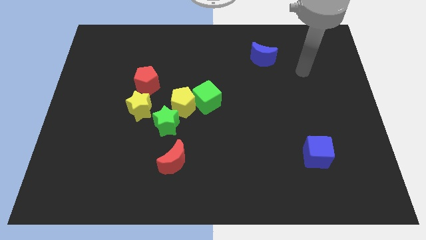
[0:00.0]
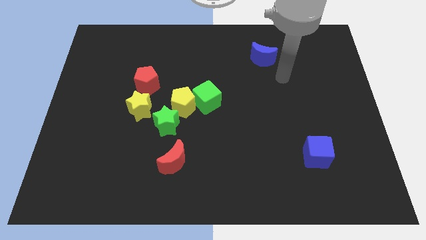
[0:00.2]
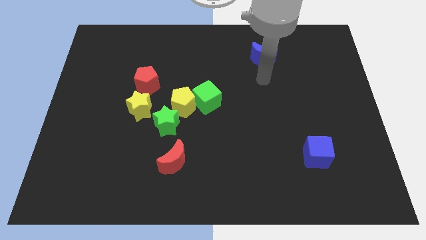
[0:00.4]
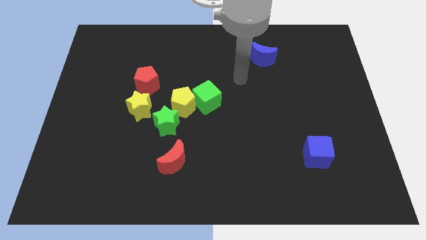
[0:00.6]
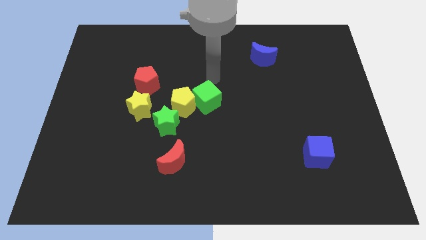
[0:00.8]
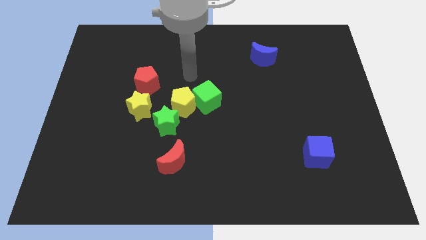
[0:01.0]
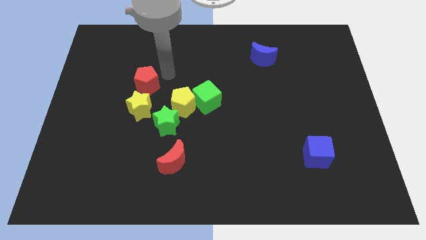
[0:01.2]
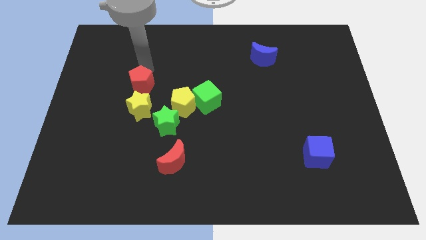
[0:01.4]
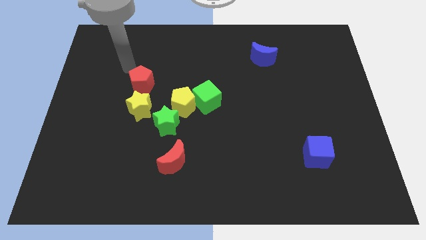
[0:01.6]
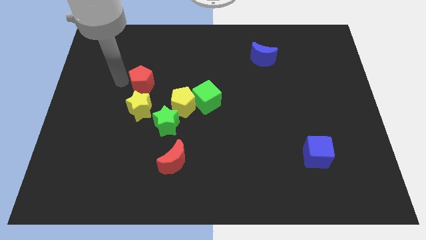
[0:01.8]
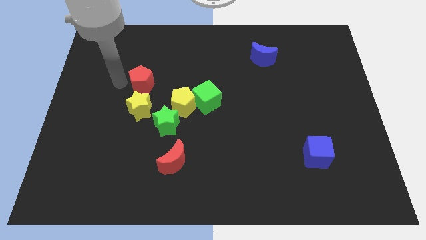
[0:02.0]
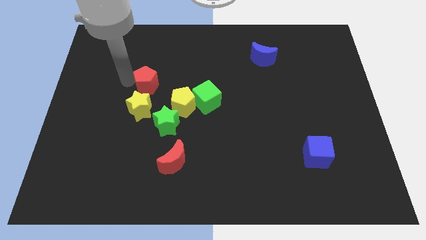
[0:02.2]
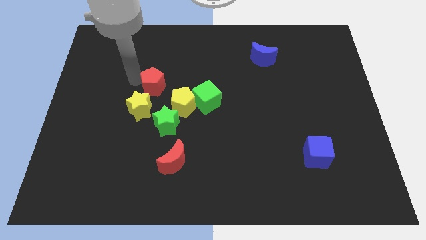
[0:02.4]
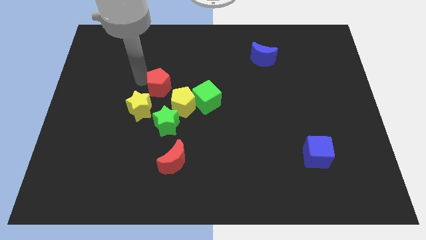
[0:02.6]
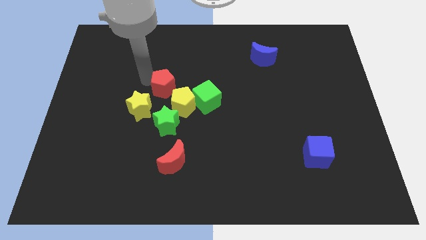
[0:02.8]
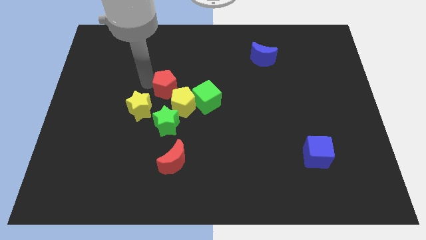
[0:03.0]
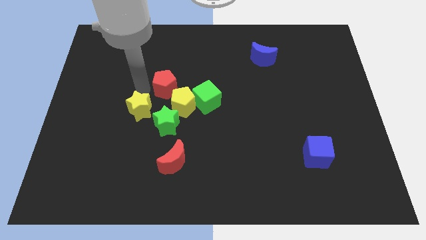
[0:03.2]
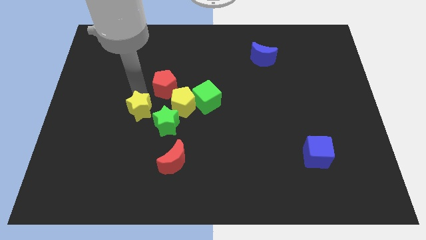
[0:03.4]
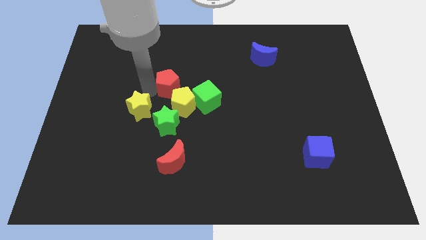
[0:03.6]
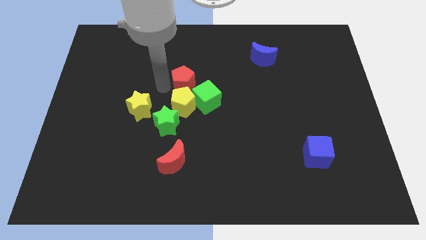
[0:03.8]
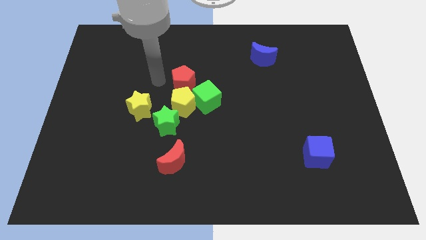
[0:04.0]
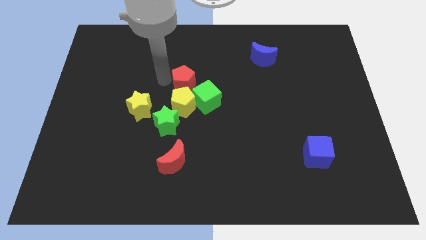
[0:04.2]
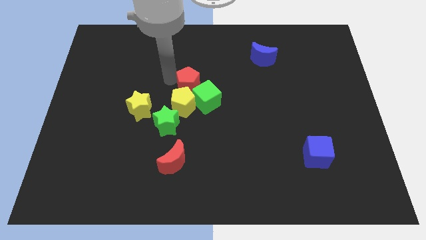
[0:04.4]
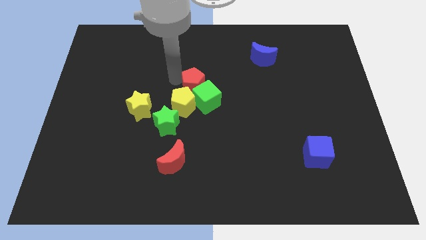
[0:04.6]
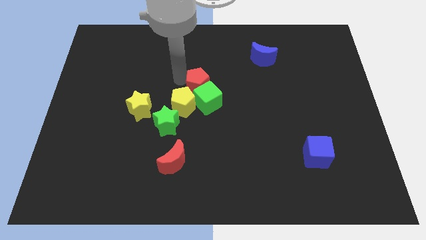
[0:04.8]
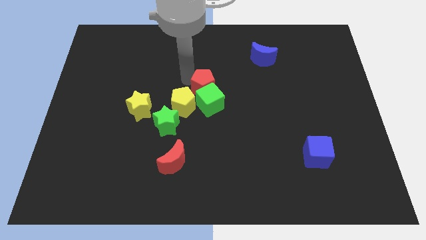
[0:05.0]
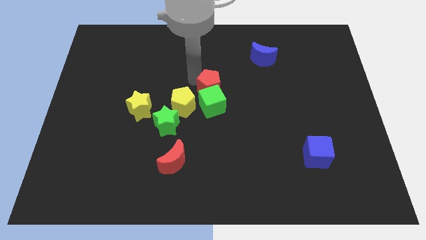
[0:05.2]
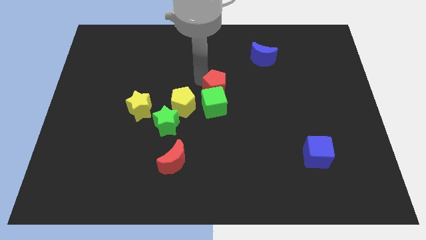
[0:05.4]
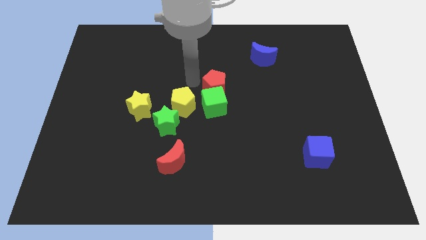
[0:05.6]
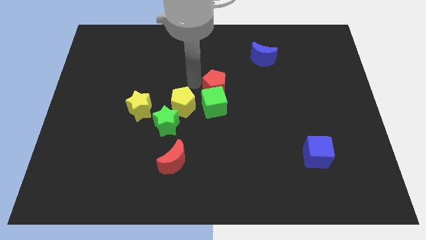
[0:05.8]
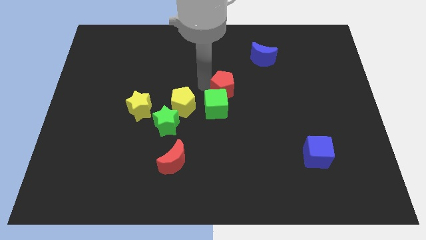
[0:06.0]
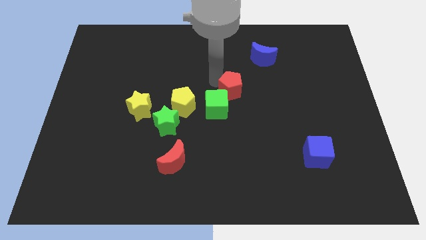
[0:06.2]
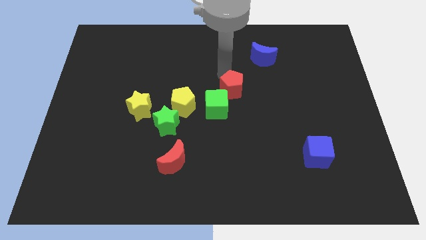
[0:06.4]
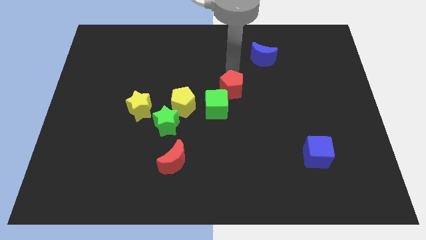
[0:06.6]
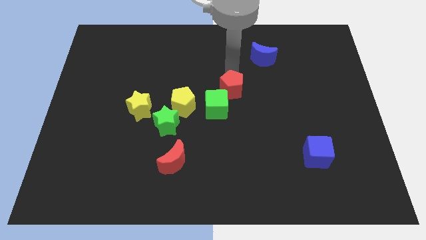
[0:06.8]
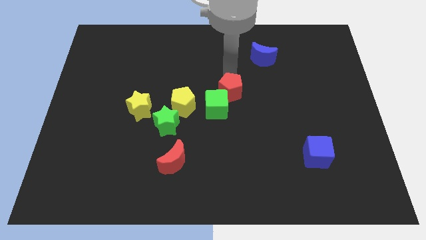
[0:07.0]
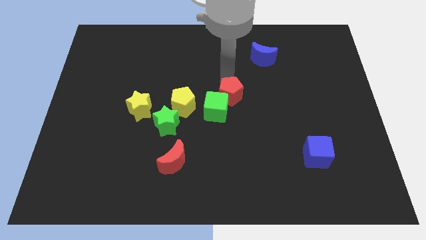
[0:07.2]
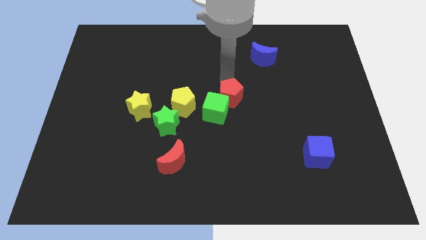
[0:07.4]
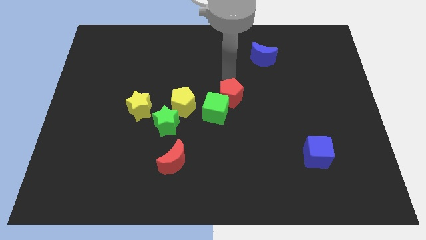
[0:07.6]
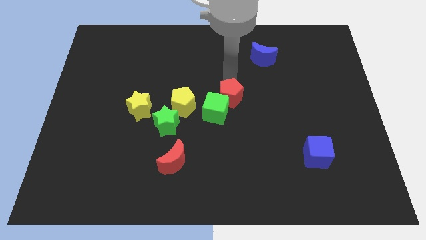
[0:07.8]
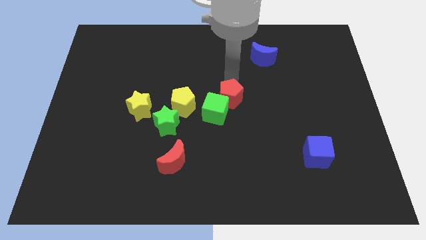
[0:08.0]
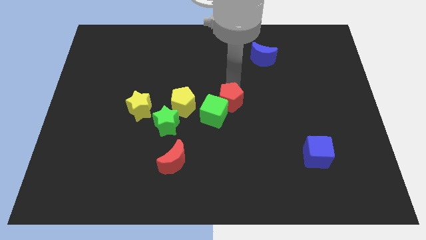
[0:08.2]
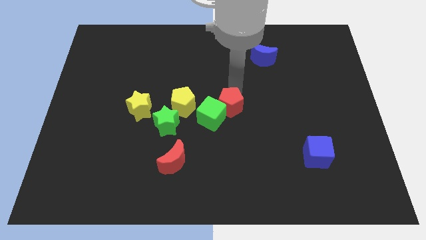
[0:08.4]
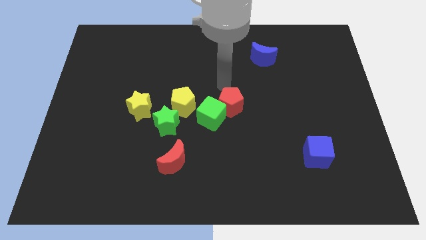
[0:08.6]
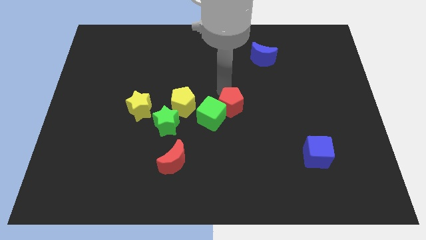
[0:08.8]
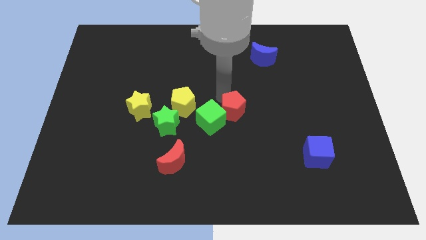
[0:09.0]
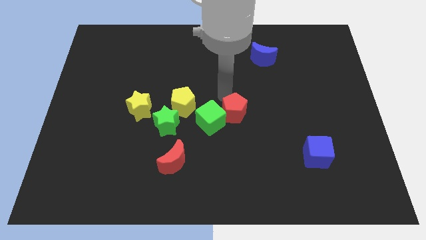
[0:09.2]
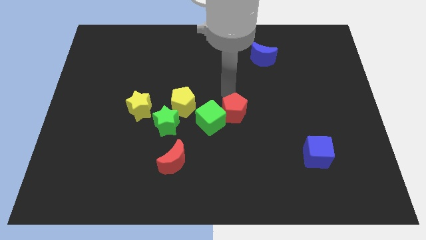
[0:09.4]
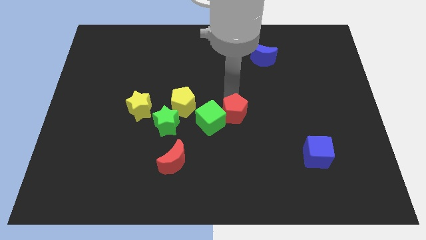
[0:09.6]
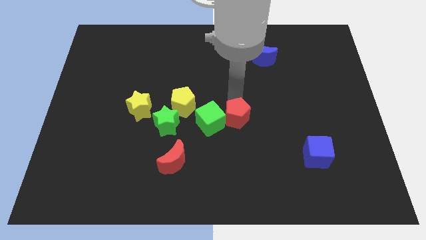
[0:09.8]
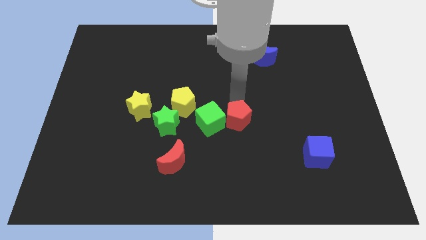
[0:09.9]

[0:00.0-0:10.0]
slide the red pentagon diagonally downwards and right

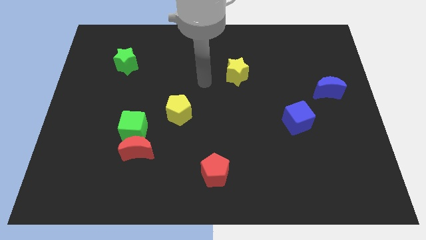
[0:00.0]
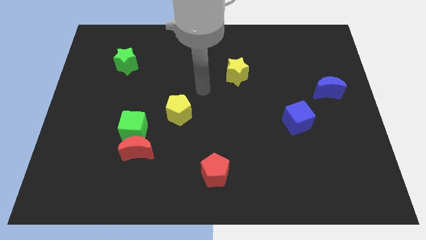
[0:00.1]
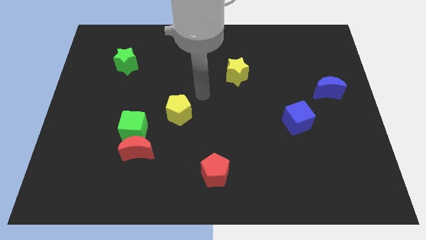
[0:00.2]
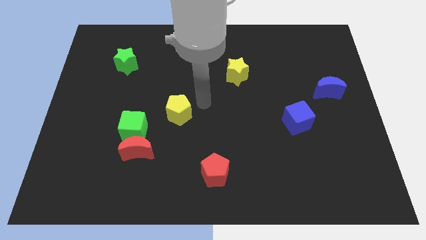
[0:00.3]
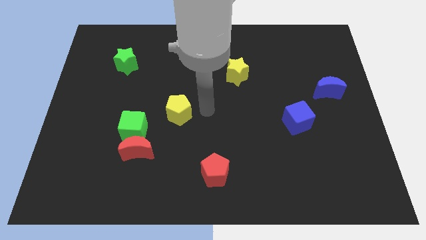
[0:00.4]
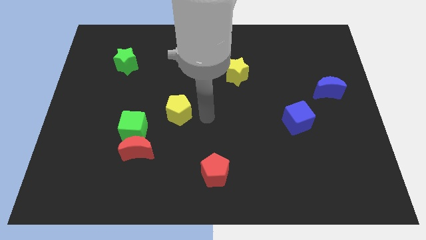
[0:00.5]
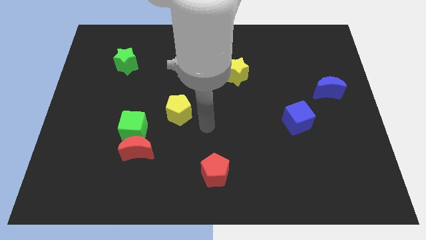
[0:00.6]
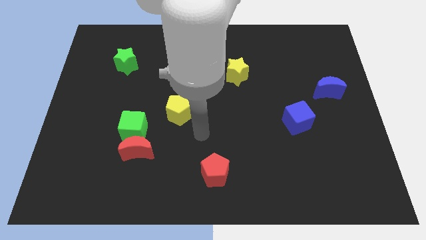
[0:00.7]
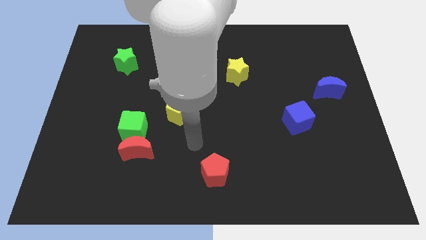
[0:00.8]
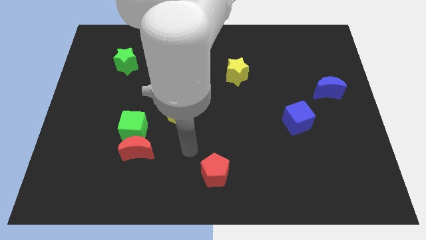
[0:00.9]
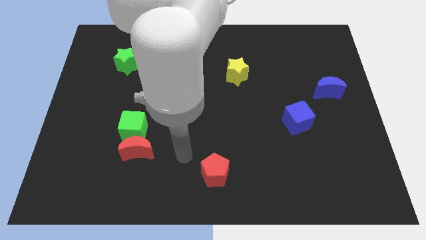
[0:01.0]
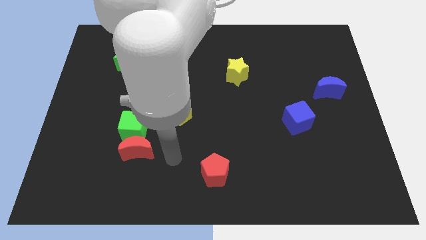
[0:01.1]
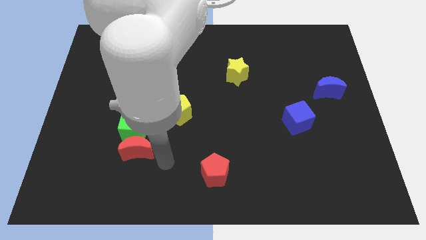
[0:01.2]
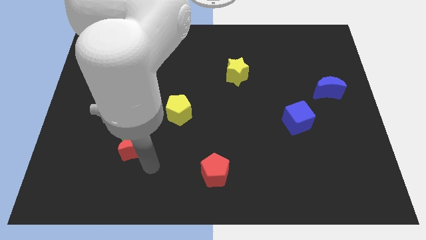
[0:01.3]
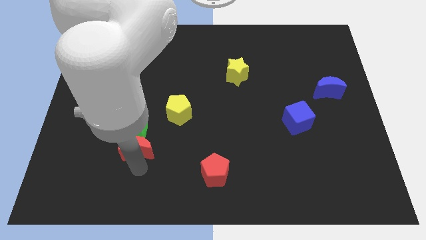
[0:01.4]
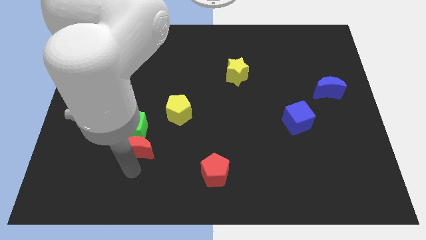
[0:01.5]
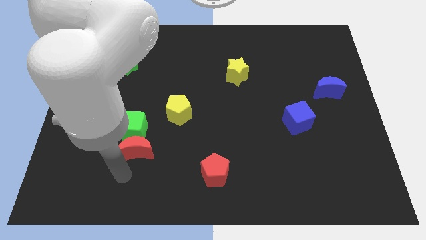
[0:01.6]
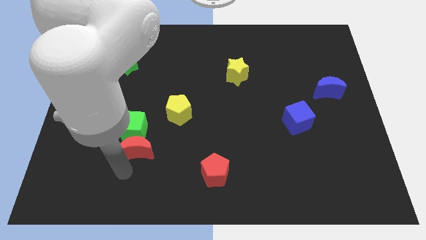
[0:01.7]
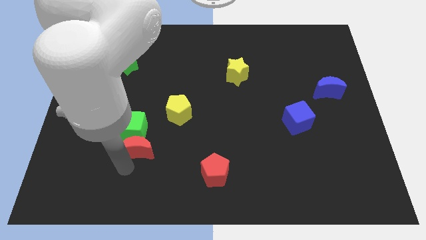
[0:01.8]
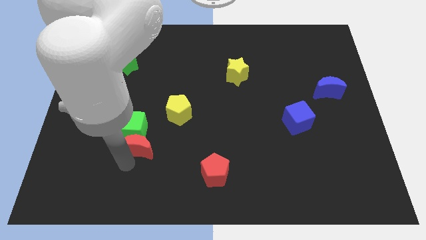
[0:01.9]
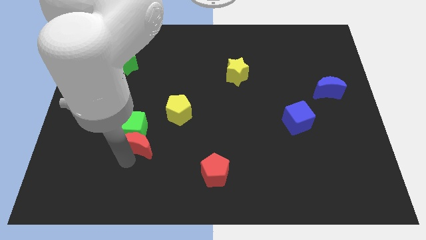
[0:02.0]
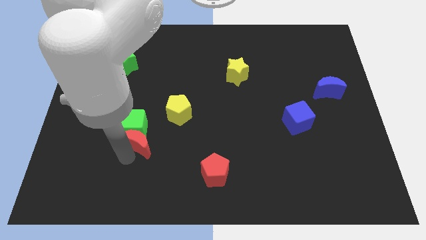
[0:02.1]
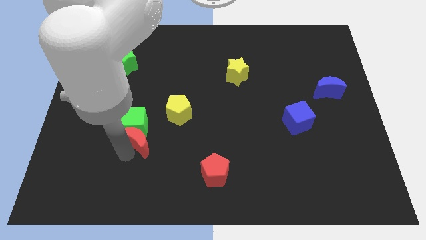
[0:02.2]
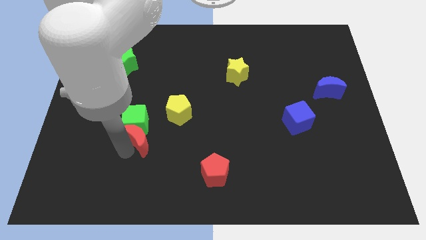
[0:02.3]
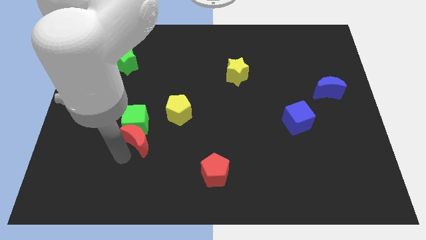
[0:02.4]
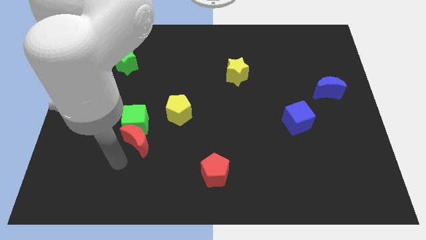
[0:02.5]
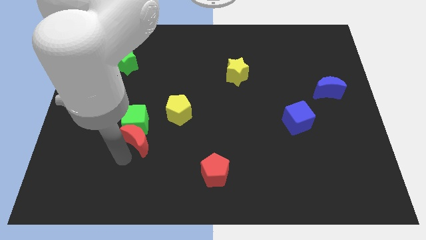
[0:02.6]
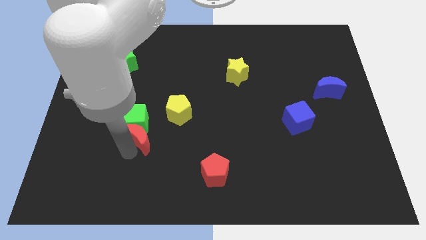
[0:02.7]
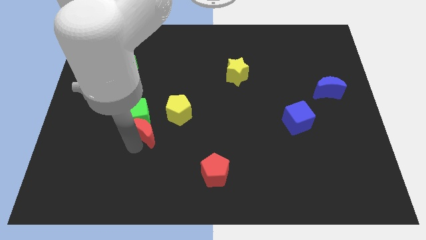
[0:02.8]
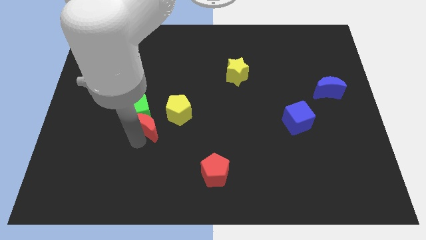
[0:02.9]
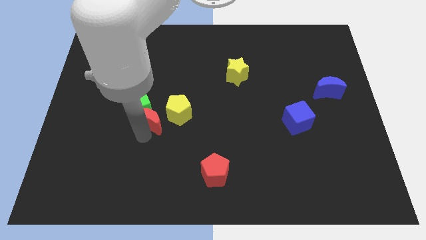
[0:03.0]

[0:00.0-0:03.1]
move the red moon upwards a bit
